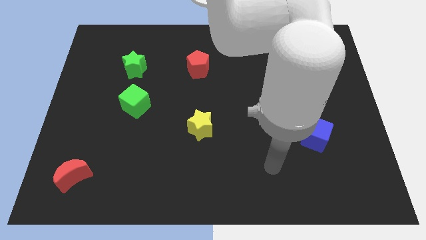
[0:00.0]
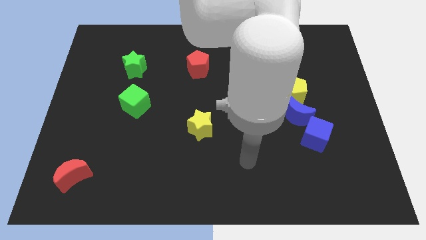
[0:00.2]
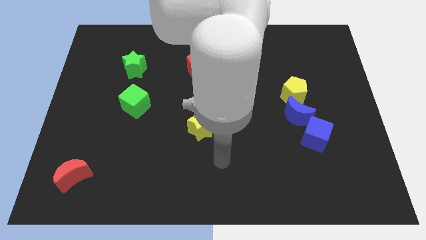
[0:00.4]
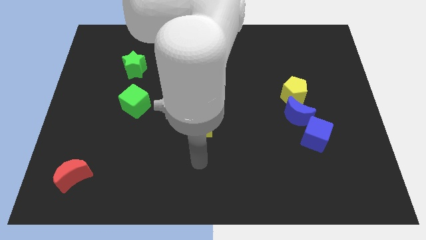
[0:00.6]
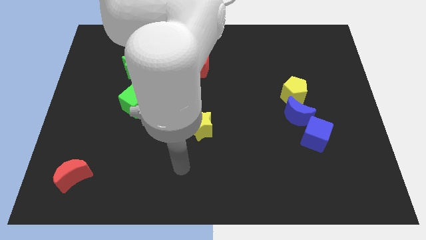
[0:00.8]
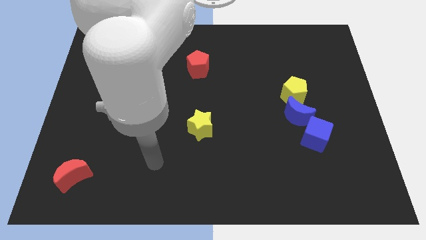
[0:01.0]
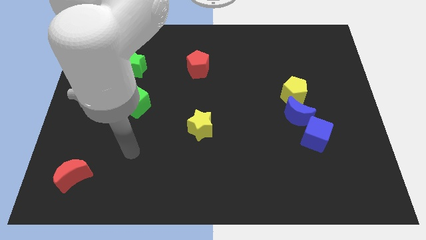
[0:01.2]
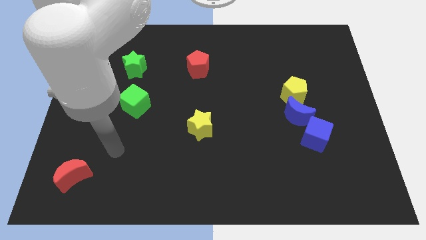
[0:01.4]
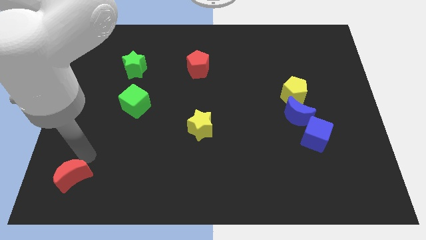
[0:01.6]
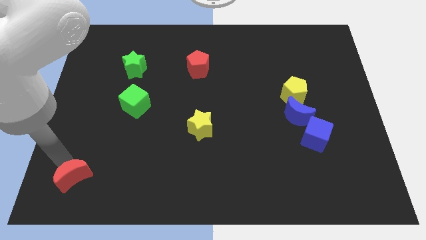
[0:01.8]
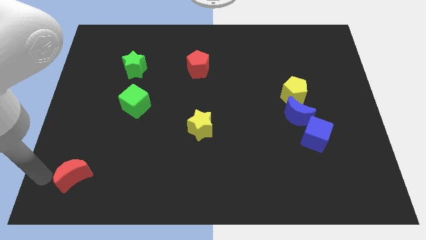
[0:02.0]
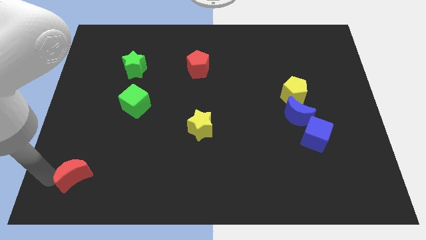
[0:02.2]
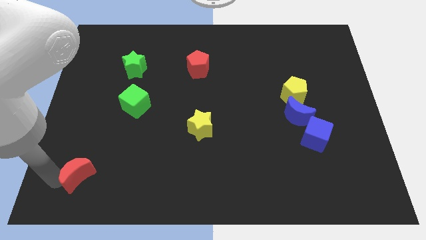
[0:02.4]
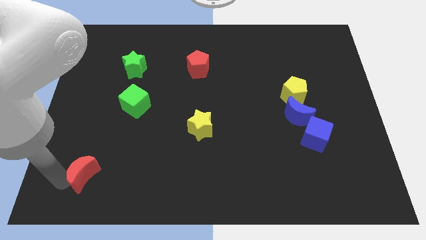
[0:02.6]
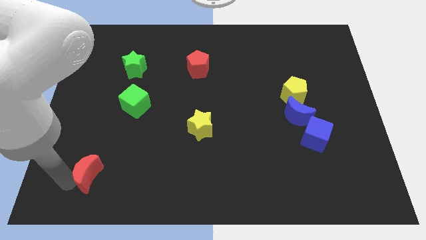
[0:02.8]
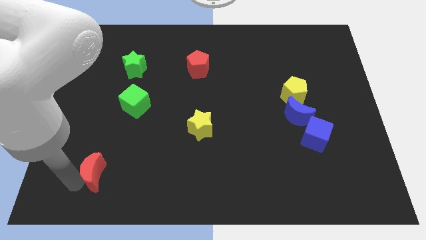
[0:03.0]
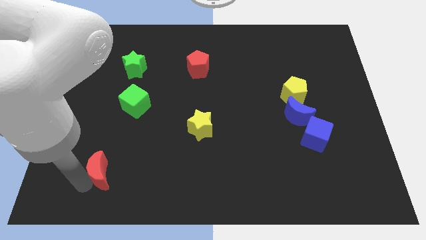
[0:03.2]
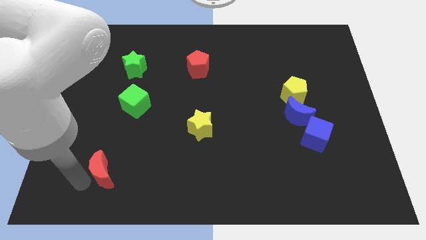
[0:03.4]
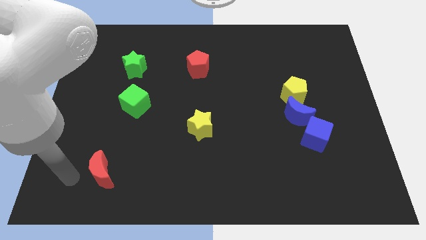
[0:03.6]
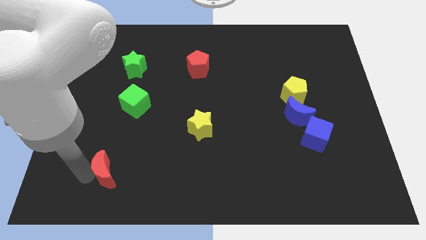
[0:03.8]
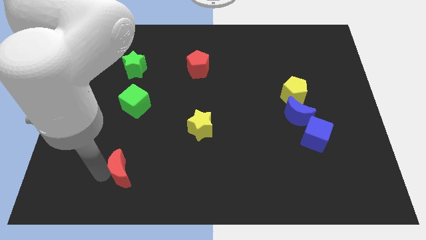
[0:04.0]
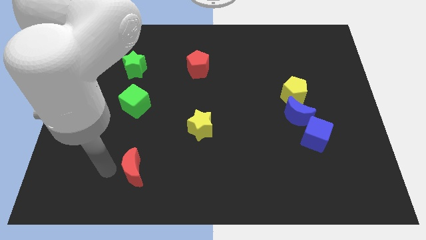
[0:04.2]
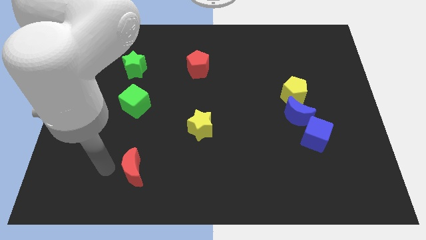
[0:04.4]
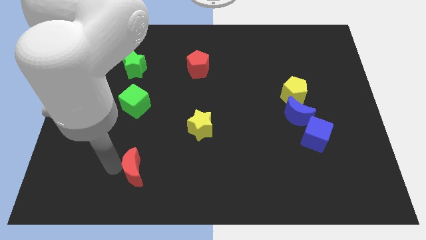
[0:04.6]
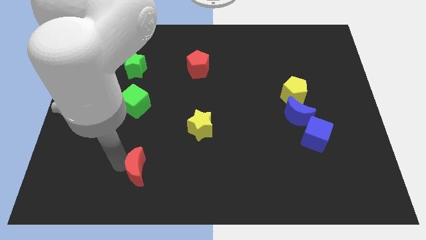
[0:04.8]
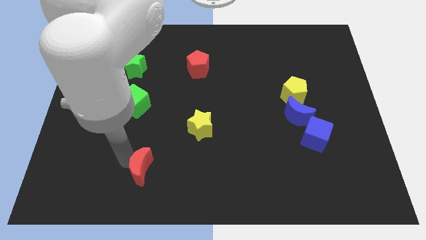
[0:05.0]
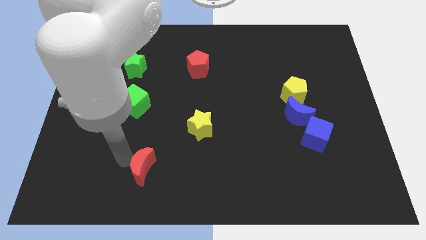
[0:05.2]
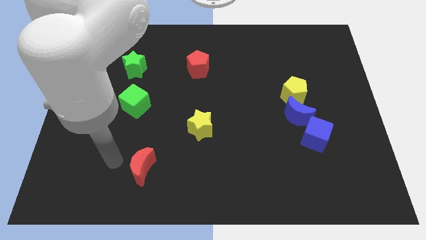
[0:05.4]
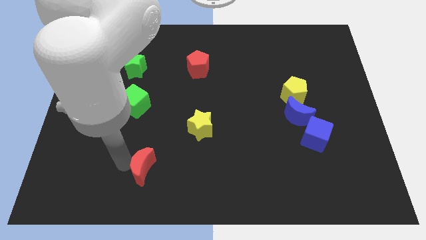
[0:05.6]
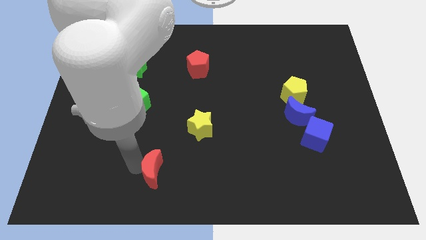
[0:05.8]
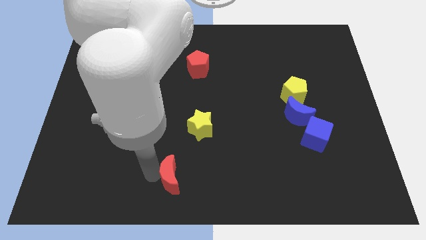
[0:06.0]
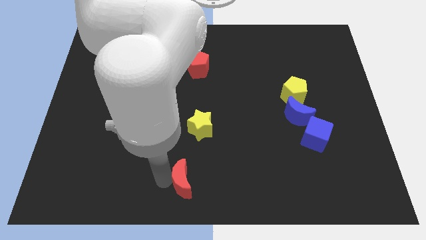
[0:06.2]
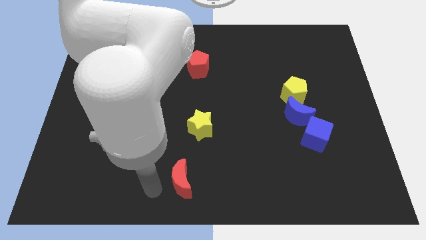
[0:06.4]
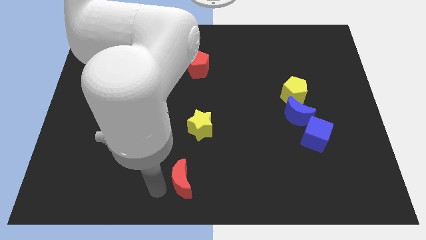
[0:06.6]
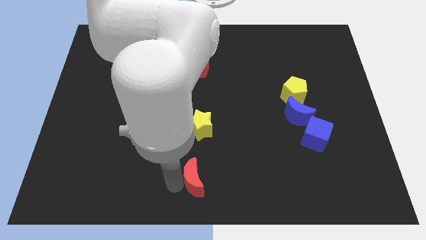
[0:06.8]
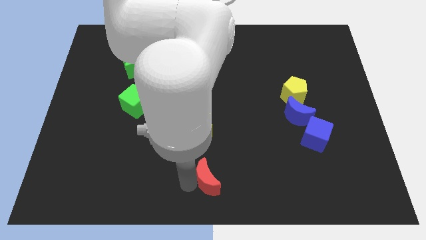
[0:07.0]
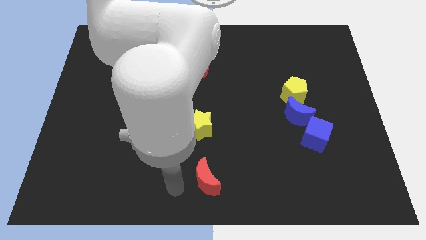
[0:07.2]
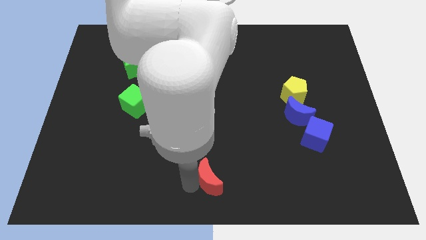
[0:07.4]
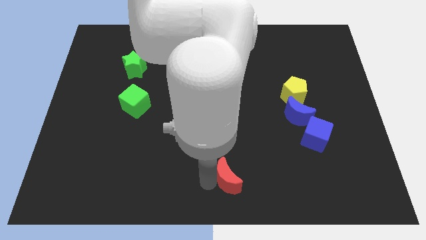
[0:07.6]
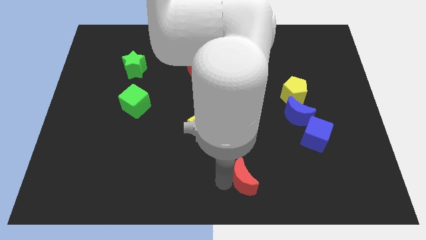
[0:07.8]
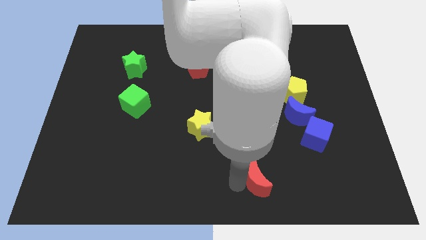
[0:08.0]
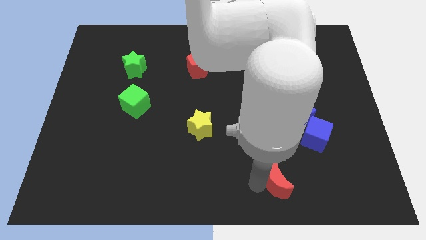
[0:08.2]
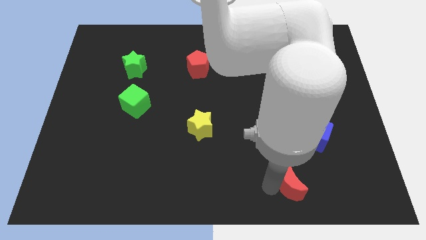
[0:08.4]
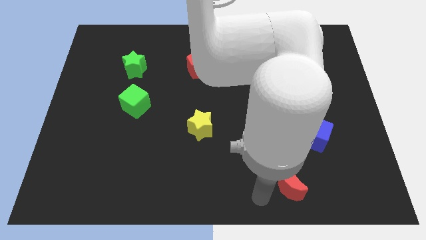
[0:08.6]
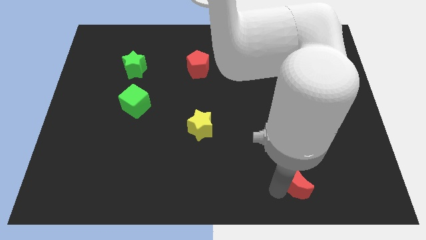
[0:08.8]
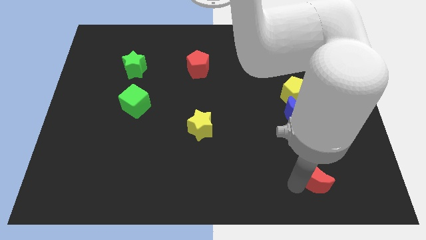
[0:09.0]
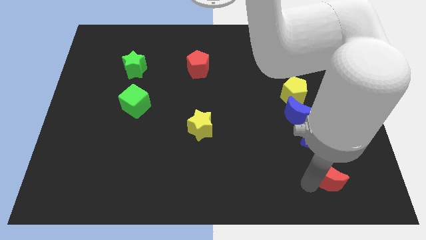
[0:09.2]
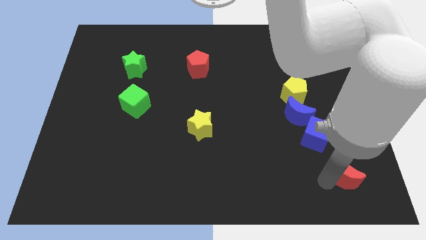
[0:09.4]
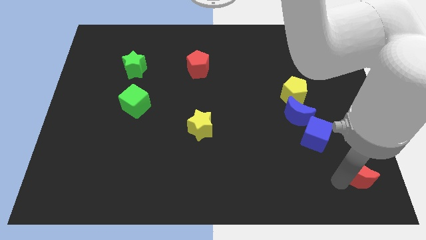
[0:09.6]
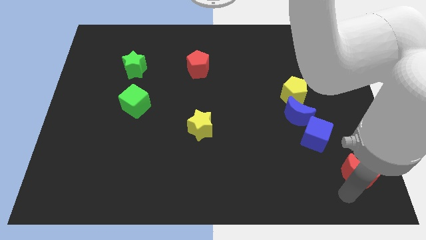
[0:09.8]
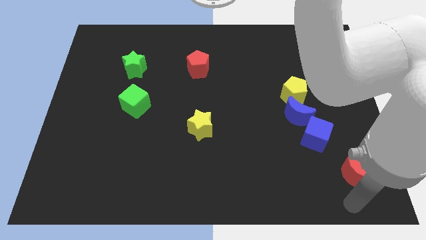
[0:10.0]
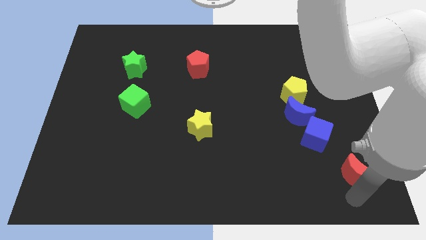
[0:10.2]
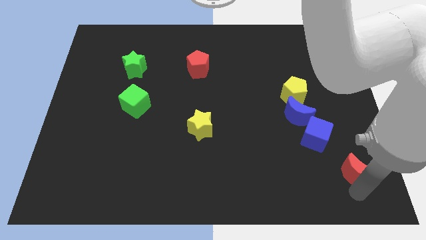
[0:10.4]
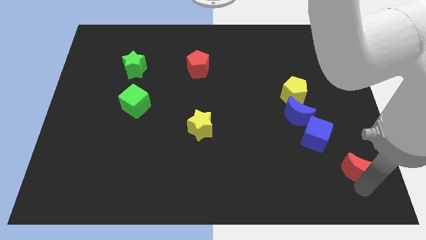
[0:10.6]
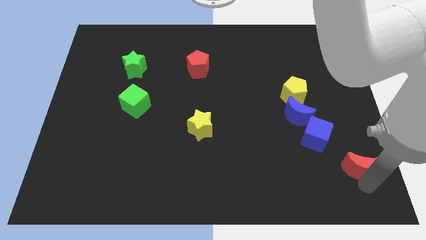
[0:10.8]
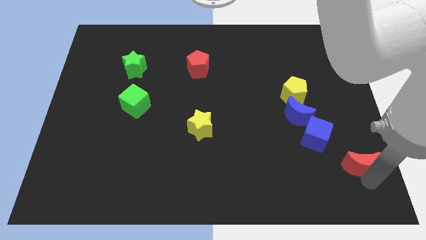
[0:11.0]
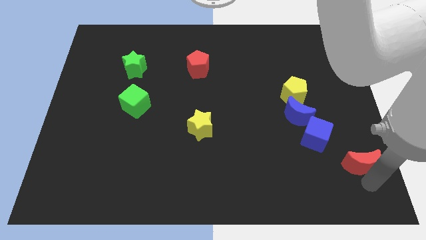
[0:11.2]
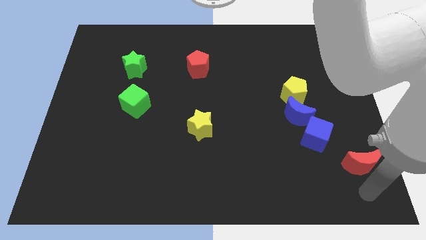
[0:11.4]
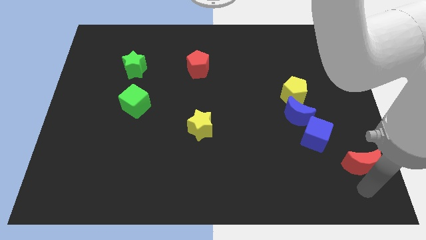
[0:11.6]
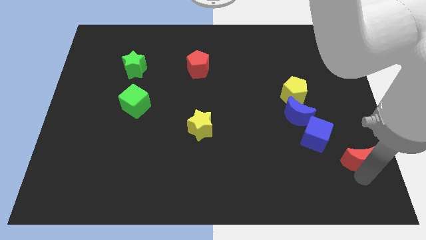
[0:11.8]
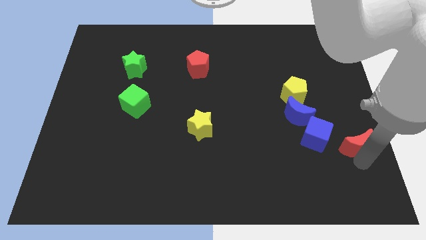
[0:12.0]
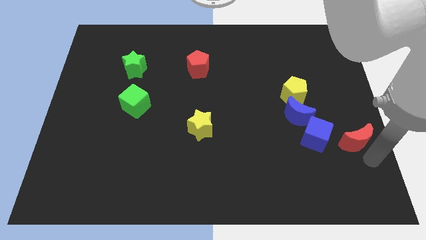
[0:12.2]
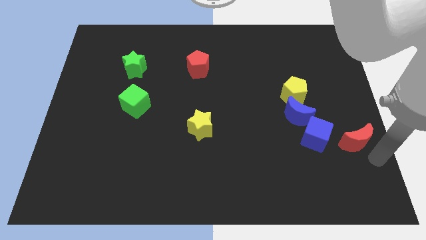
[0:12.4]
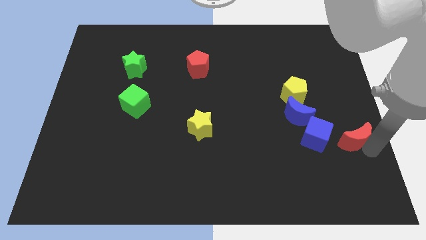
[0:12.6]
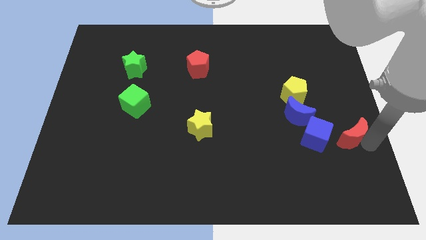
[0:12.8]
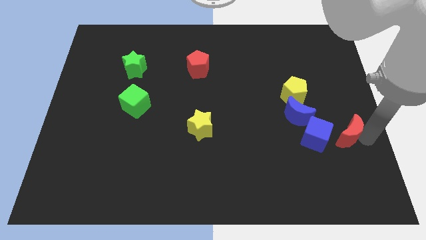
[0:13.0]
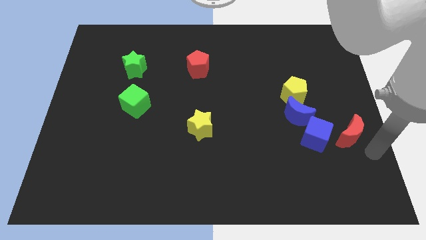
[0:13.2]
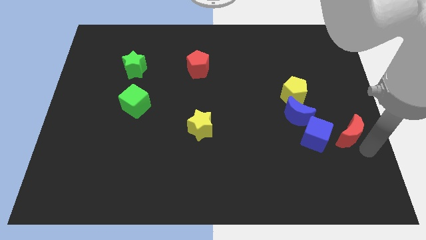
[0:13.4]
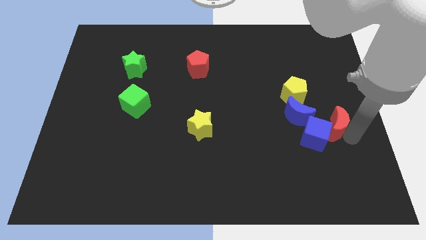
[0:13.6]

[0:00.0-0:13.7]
put the red moon to the bottom right of the yellow pentagon
